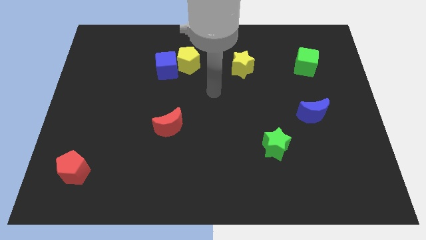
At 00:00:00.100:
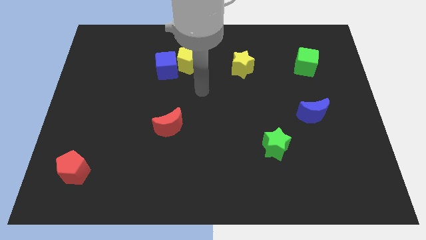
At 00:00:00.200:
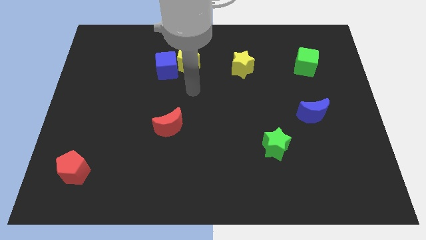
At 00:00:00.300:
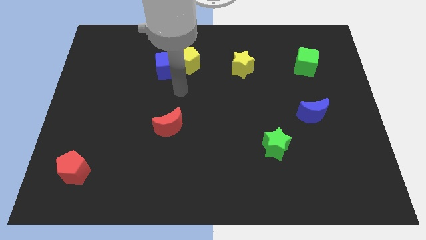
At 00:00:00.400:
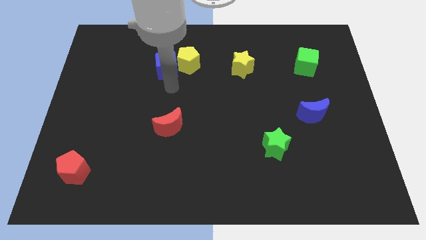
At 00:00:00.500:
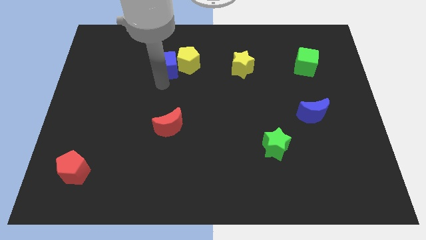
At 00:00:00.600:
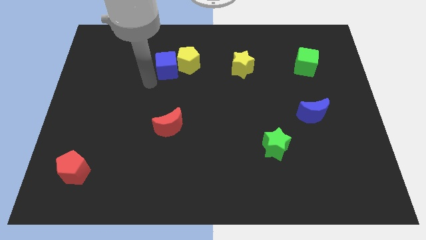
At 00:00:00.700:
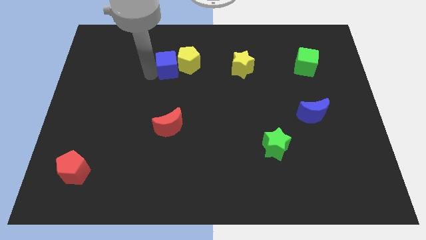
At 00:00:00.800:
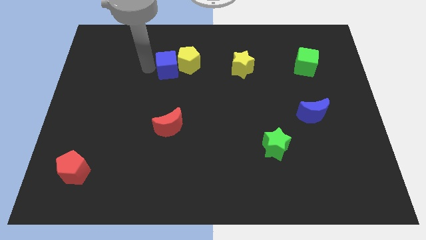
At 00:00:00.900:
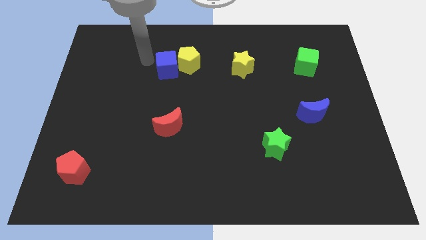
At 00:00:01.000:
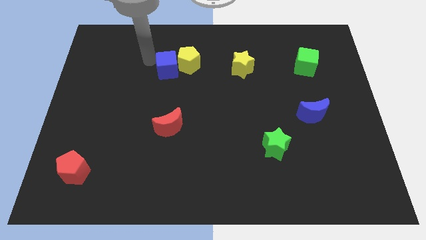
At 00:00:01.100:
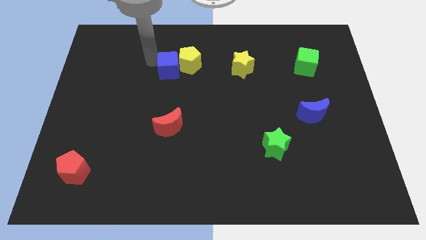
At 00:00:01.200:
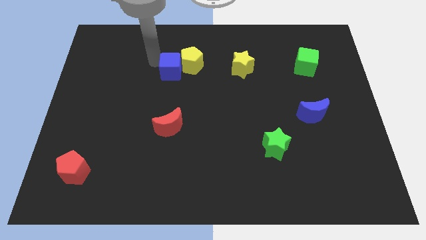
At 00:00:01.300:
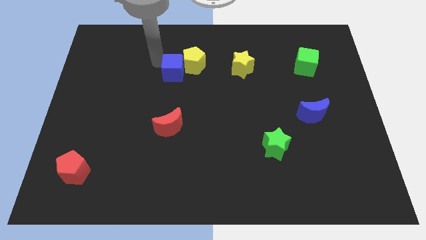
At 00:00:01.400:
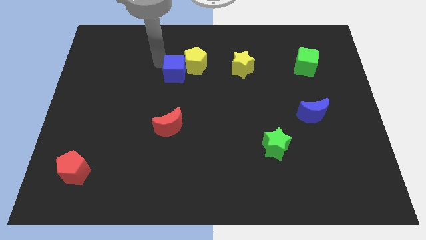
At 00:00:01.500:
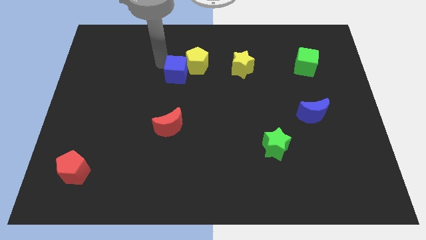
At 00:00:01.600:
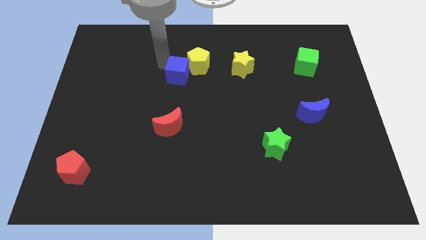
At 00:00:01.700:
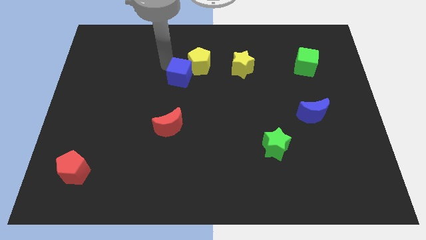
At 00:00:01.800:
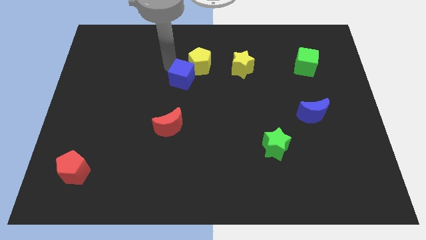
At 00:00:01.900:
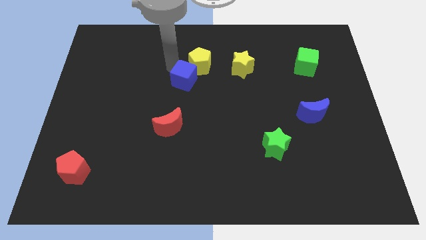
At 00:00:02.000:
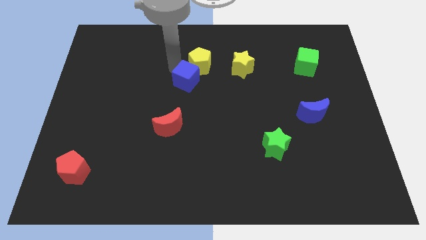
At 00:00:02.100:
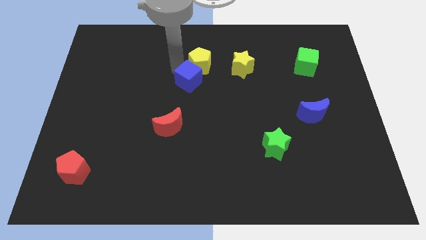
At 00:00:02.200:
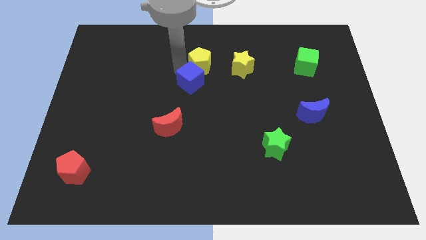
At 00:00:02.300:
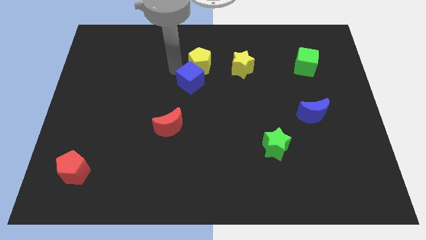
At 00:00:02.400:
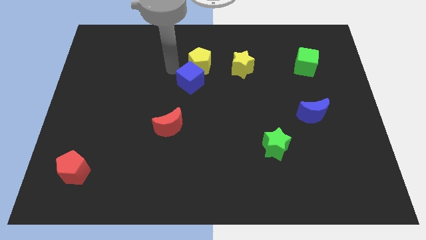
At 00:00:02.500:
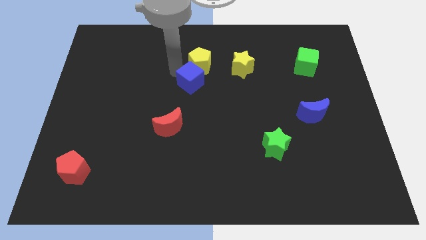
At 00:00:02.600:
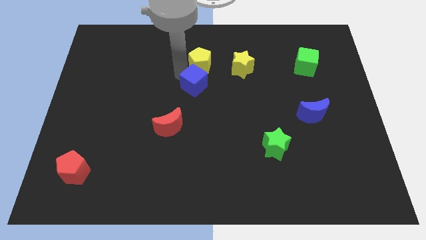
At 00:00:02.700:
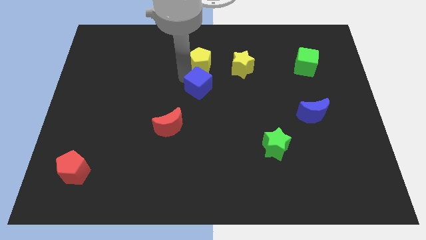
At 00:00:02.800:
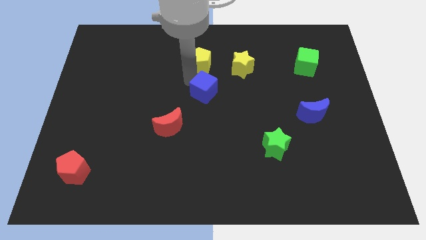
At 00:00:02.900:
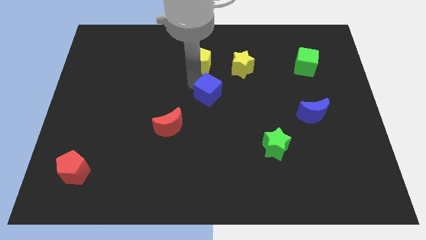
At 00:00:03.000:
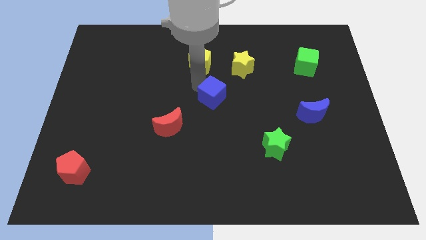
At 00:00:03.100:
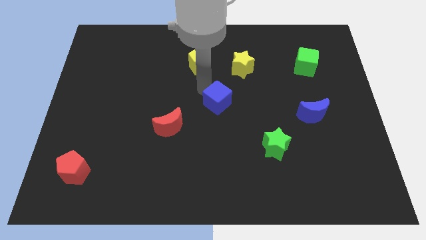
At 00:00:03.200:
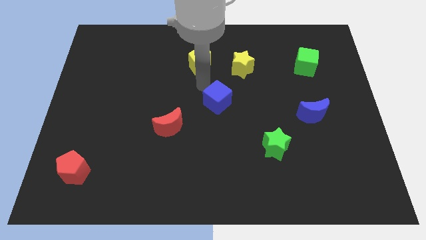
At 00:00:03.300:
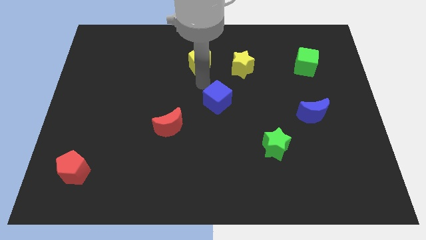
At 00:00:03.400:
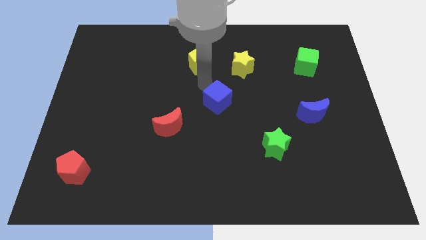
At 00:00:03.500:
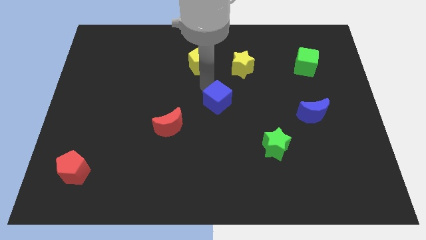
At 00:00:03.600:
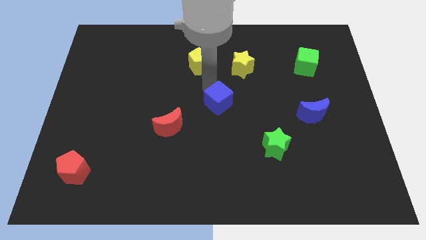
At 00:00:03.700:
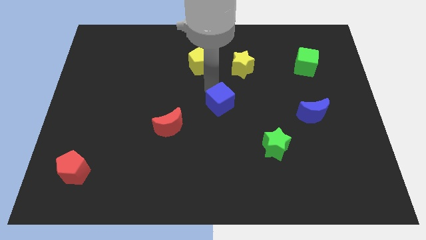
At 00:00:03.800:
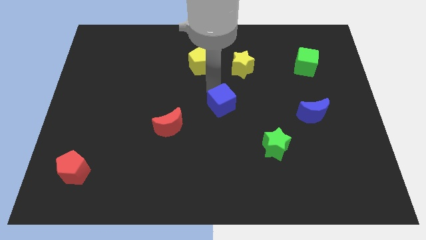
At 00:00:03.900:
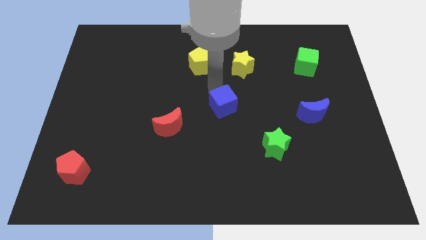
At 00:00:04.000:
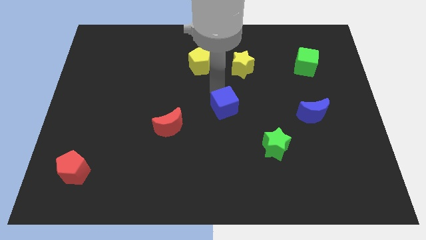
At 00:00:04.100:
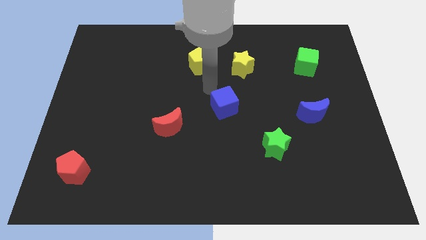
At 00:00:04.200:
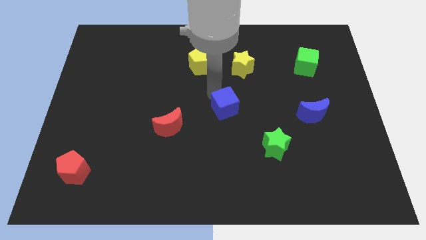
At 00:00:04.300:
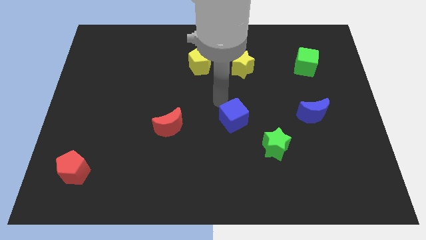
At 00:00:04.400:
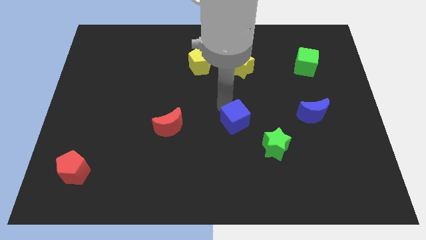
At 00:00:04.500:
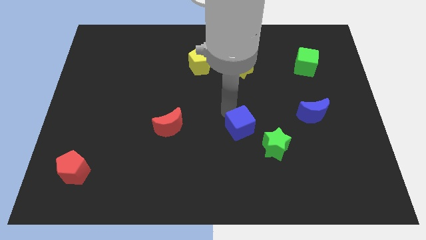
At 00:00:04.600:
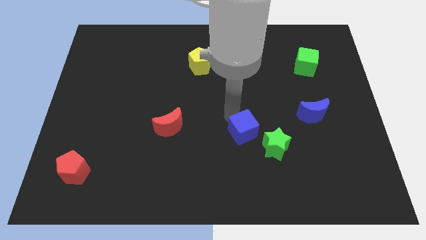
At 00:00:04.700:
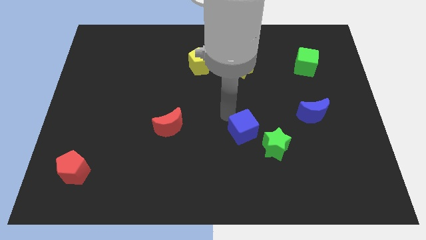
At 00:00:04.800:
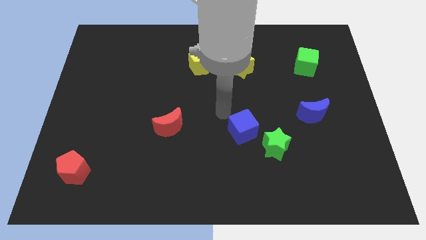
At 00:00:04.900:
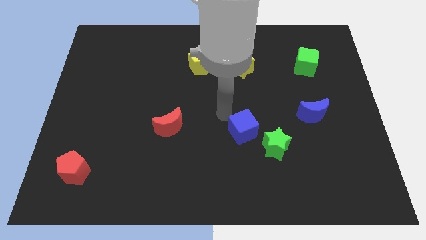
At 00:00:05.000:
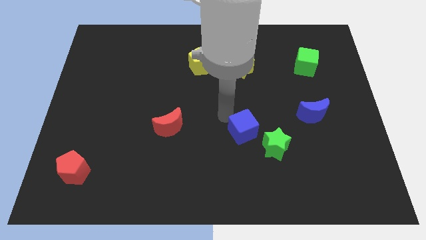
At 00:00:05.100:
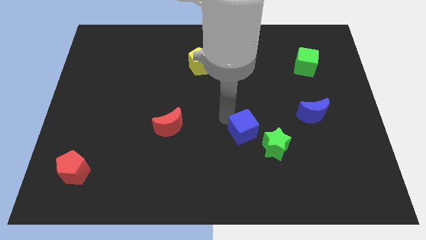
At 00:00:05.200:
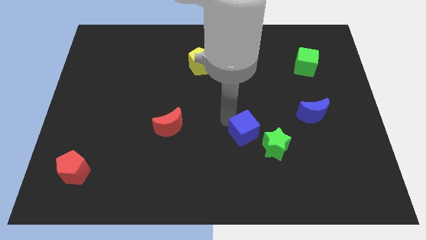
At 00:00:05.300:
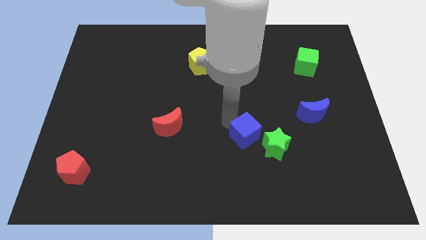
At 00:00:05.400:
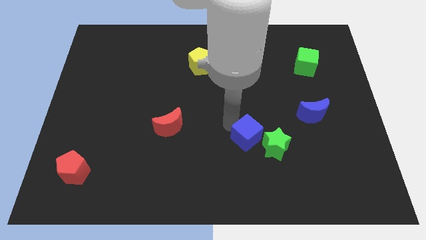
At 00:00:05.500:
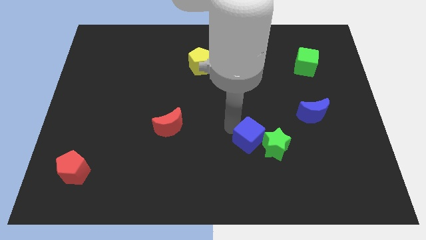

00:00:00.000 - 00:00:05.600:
push the blue cube next to the green star

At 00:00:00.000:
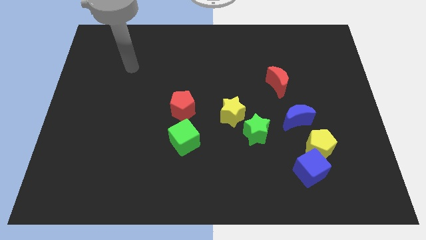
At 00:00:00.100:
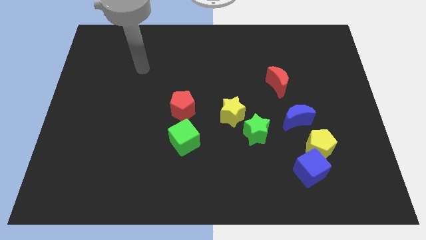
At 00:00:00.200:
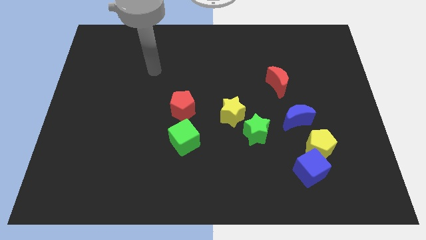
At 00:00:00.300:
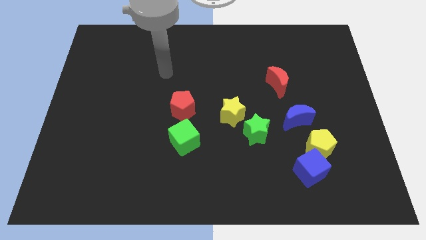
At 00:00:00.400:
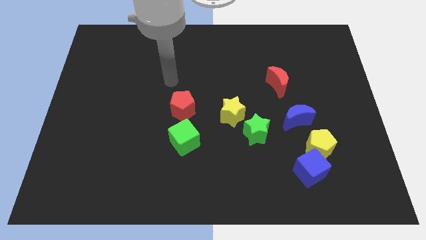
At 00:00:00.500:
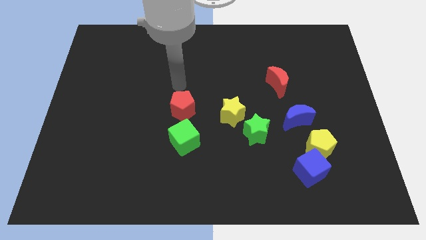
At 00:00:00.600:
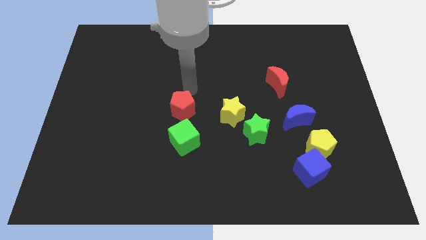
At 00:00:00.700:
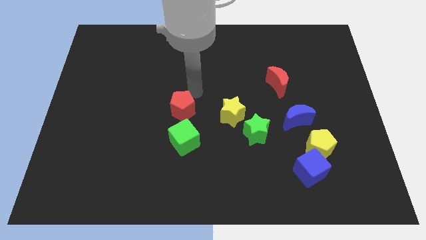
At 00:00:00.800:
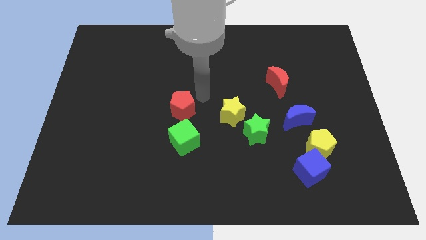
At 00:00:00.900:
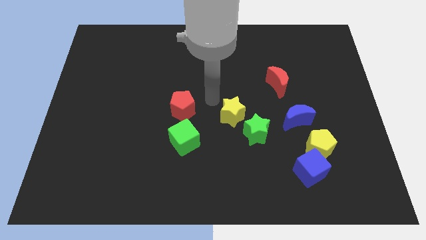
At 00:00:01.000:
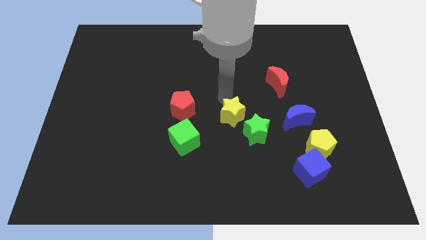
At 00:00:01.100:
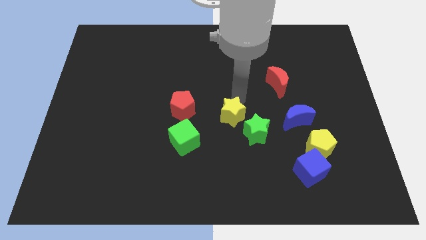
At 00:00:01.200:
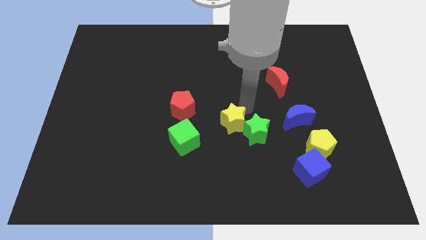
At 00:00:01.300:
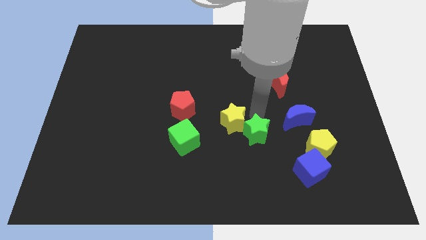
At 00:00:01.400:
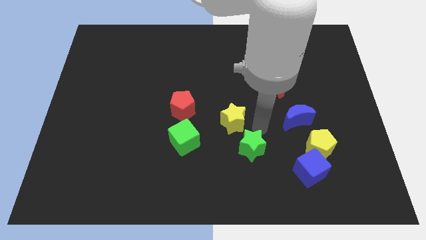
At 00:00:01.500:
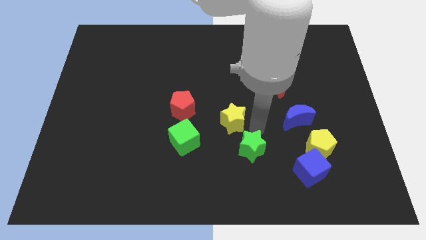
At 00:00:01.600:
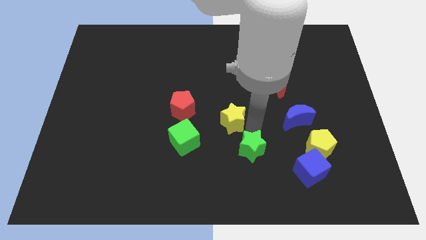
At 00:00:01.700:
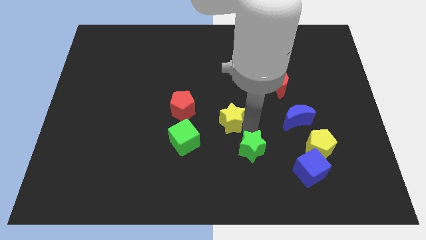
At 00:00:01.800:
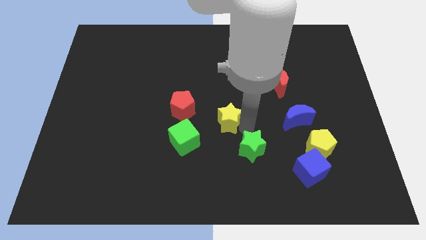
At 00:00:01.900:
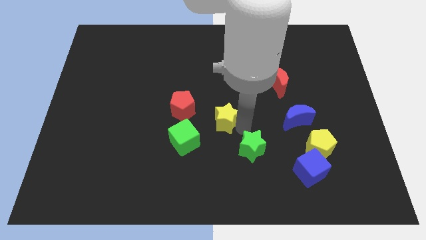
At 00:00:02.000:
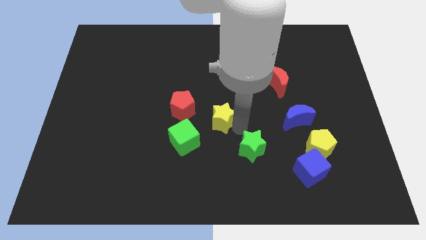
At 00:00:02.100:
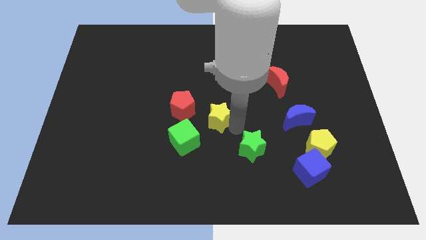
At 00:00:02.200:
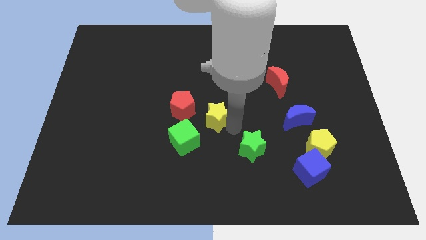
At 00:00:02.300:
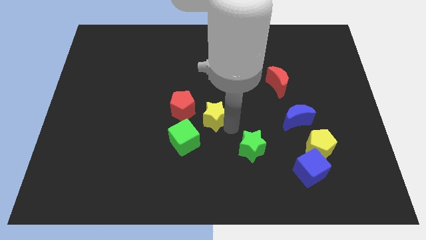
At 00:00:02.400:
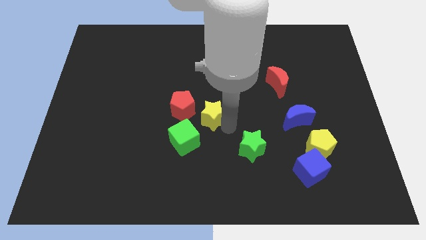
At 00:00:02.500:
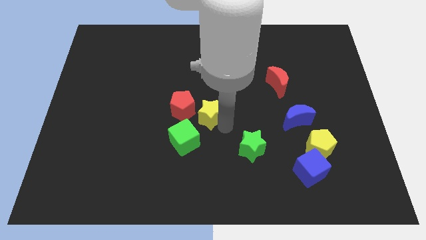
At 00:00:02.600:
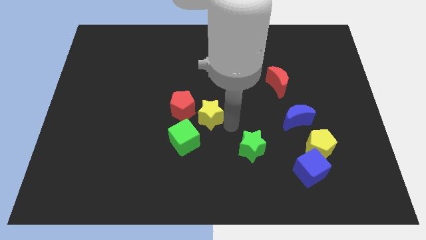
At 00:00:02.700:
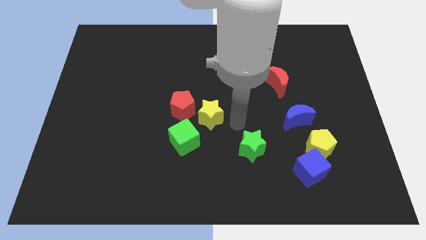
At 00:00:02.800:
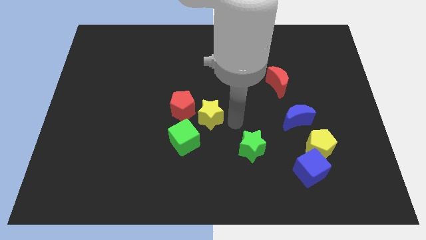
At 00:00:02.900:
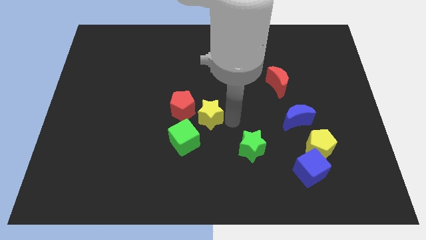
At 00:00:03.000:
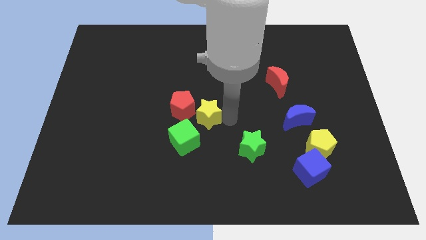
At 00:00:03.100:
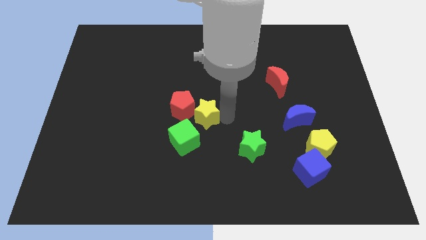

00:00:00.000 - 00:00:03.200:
slide the yellow star close to the red pentagon
